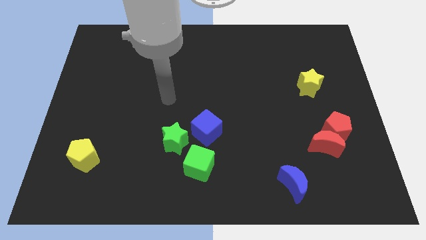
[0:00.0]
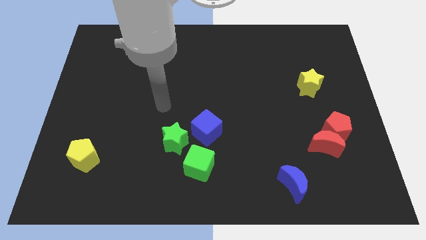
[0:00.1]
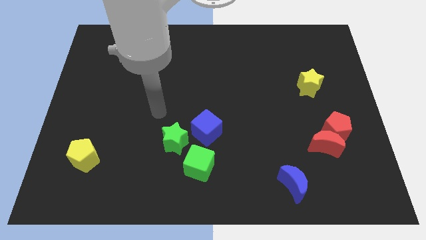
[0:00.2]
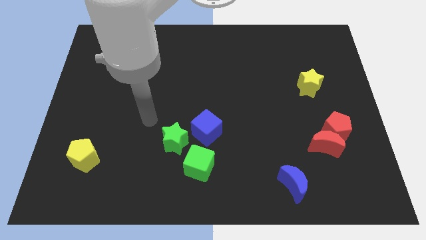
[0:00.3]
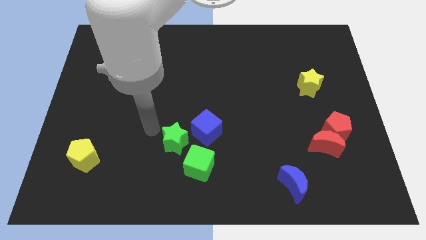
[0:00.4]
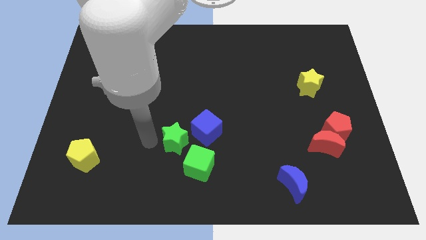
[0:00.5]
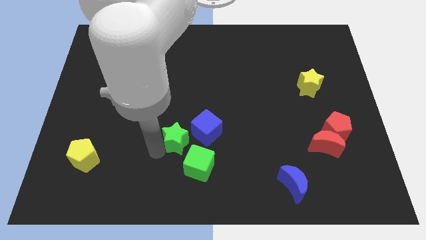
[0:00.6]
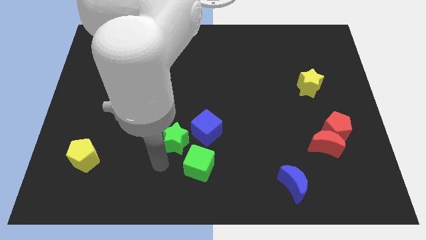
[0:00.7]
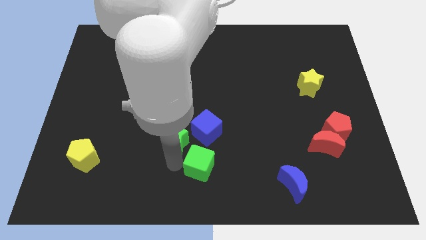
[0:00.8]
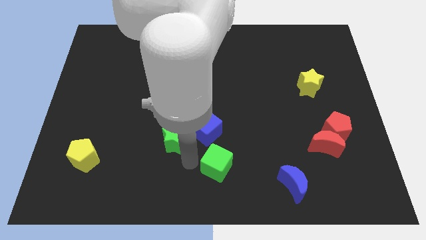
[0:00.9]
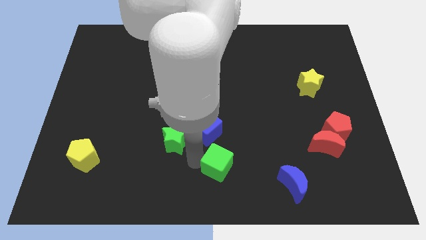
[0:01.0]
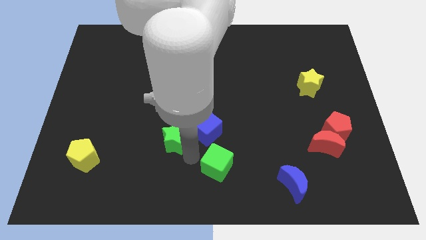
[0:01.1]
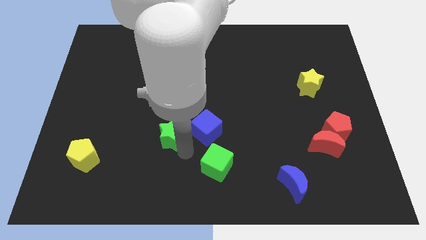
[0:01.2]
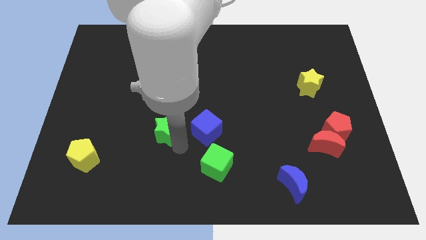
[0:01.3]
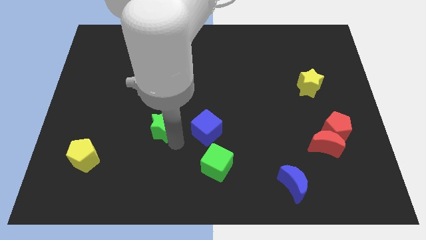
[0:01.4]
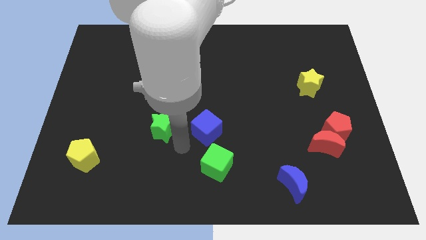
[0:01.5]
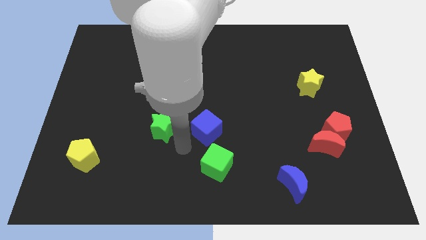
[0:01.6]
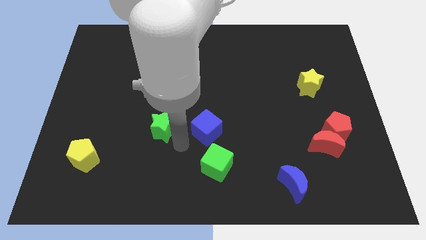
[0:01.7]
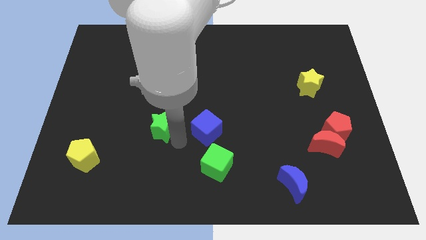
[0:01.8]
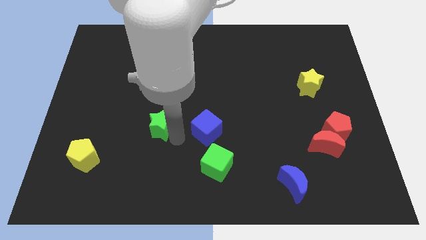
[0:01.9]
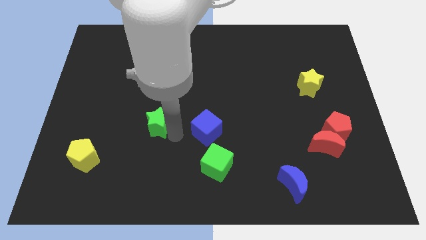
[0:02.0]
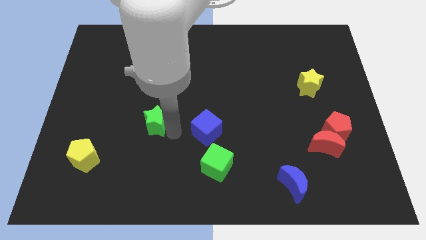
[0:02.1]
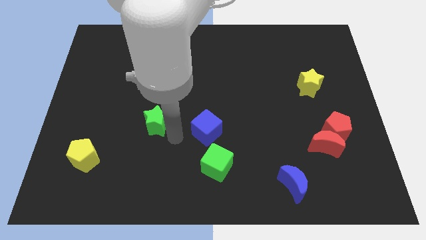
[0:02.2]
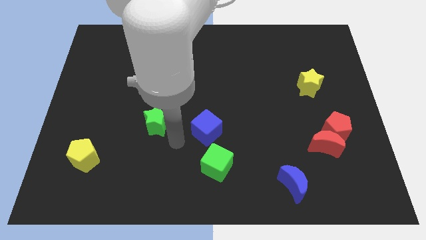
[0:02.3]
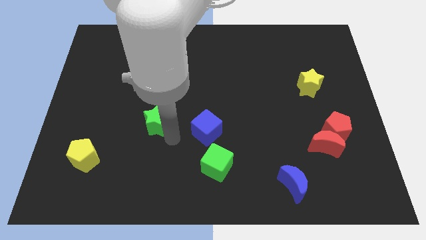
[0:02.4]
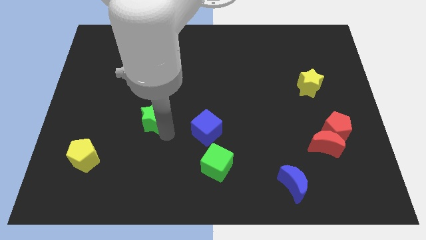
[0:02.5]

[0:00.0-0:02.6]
slide the green star somewhat upwards and left diagonally

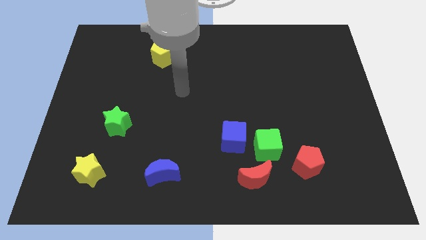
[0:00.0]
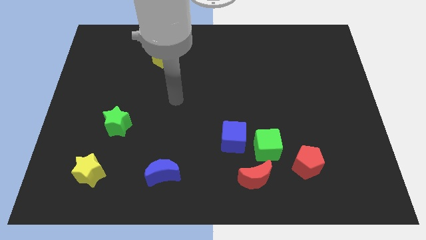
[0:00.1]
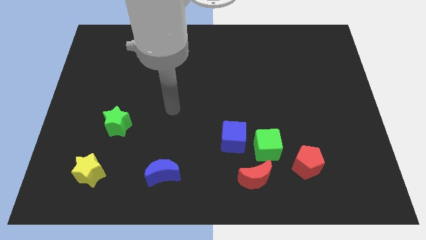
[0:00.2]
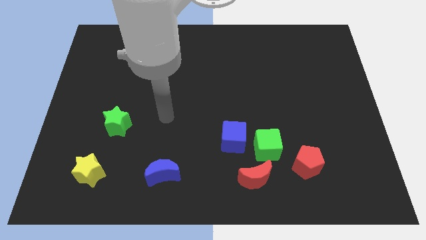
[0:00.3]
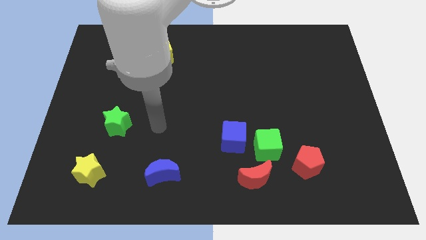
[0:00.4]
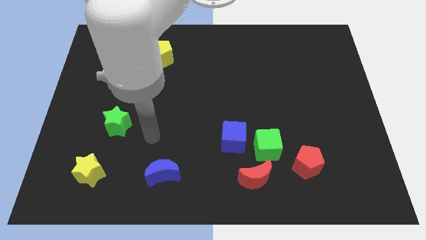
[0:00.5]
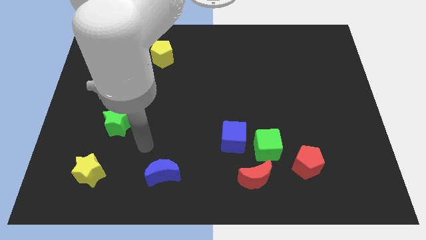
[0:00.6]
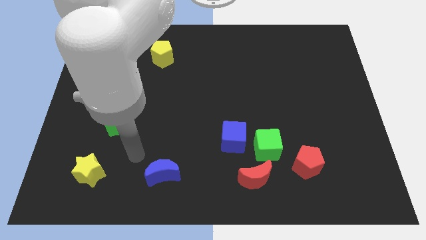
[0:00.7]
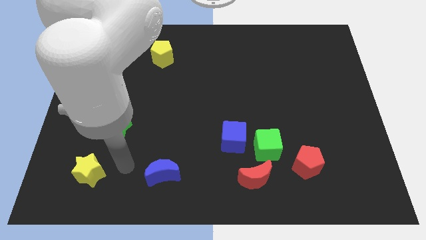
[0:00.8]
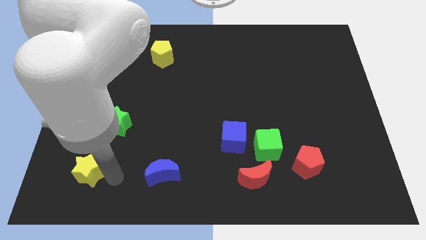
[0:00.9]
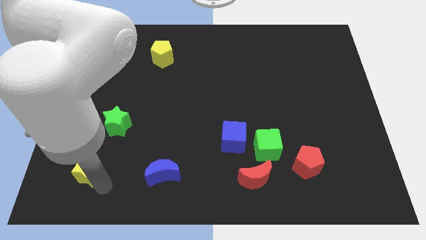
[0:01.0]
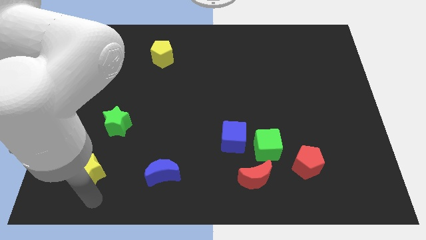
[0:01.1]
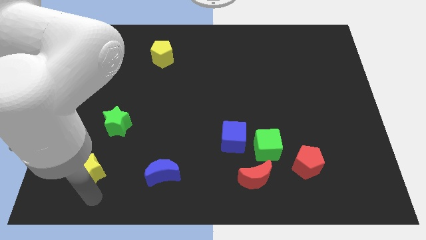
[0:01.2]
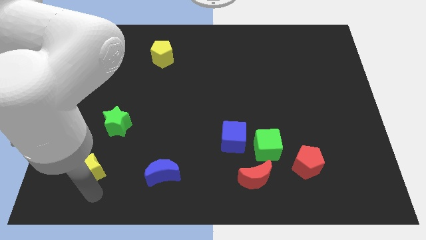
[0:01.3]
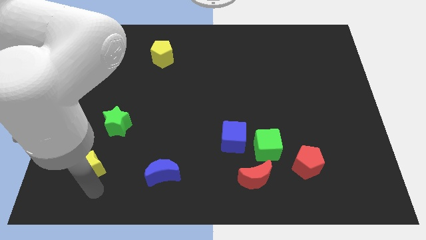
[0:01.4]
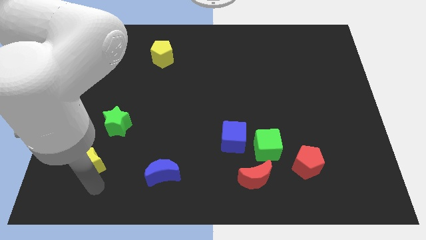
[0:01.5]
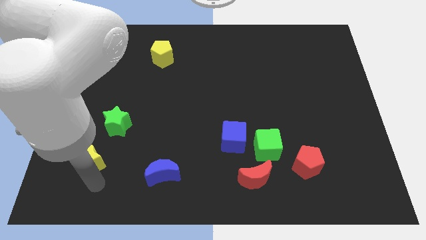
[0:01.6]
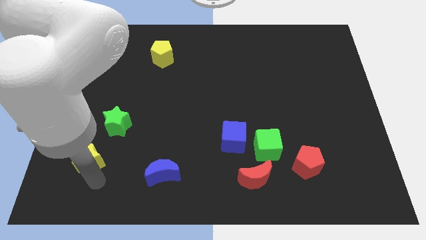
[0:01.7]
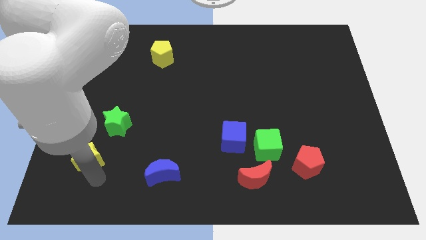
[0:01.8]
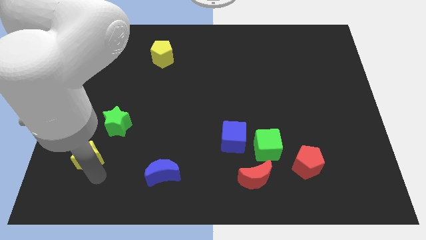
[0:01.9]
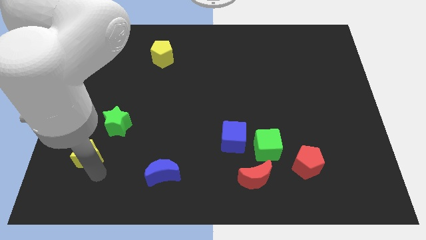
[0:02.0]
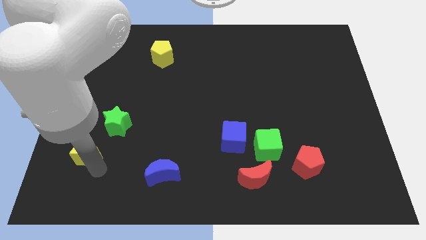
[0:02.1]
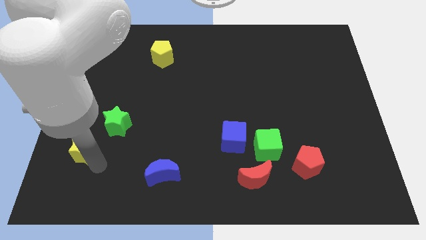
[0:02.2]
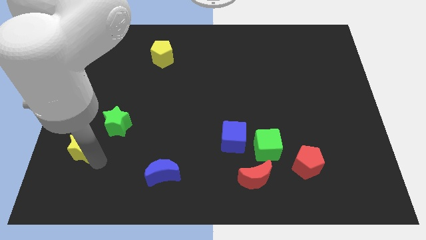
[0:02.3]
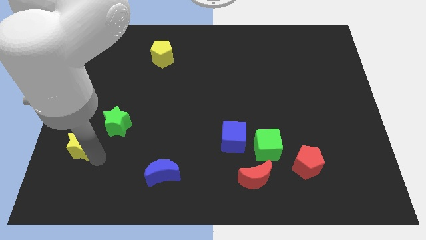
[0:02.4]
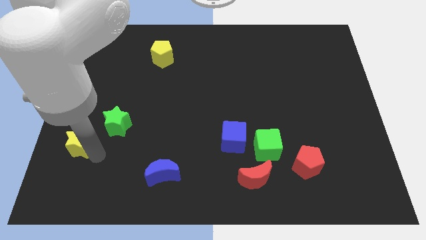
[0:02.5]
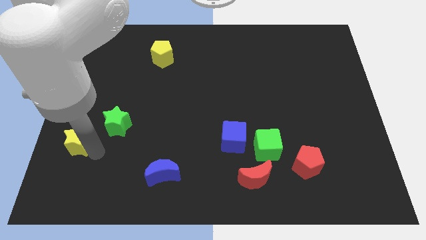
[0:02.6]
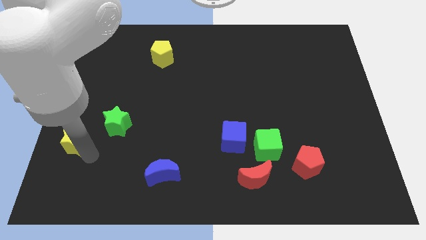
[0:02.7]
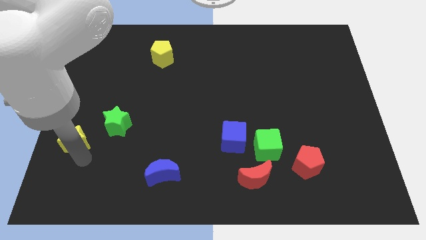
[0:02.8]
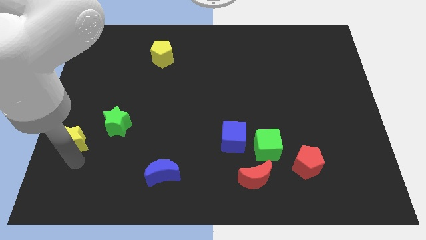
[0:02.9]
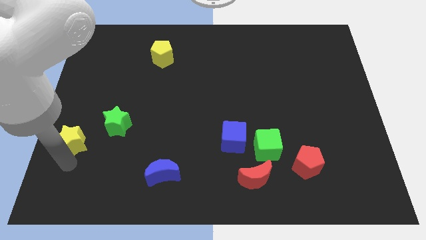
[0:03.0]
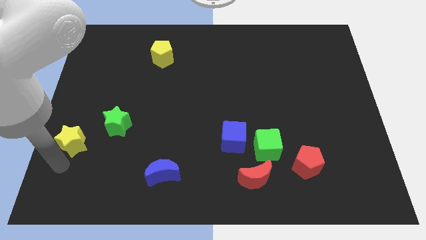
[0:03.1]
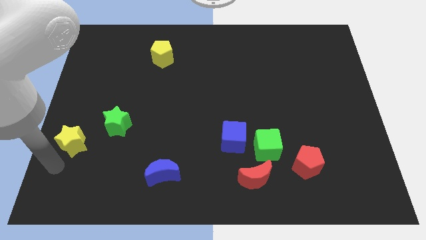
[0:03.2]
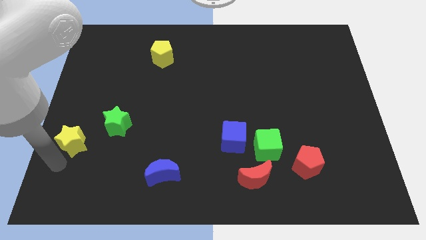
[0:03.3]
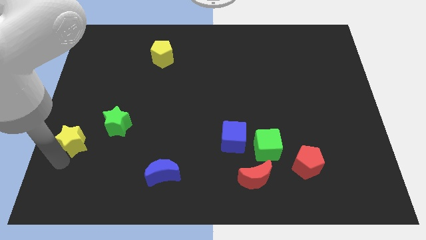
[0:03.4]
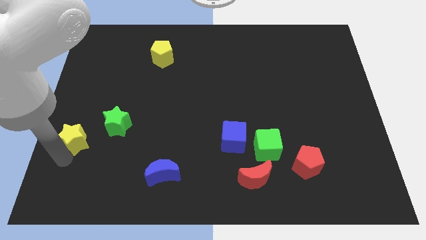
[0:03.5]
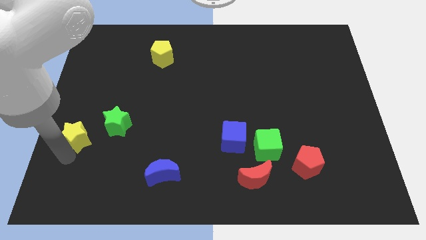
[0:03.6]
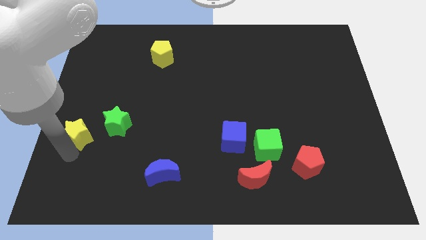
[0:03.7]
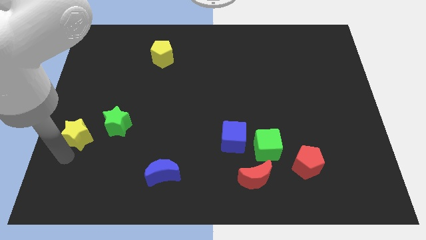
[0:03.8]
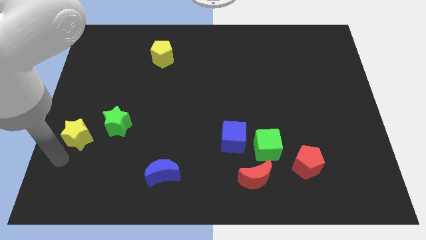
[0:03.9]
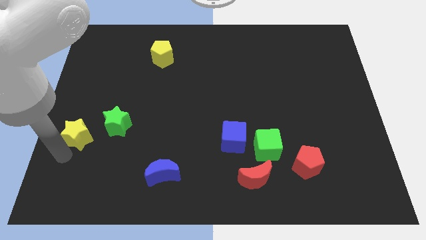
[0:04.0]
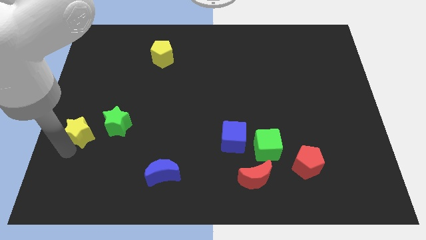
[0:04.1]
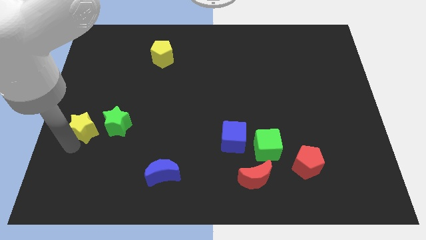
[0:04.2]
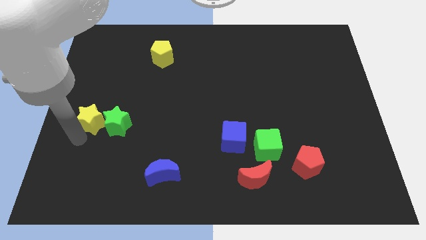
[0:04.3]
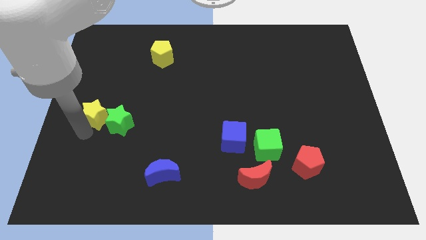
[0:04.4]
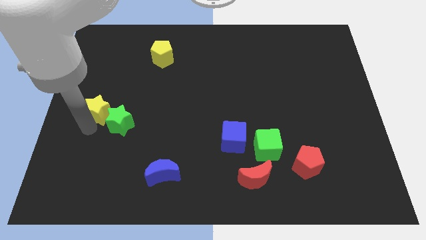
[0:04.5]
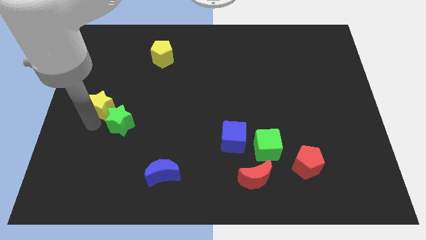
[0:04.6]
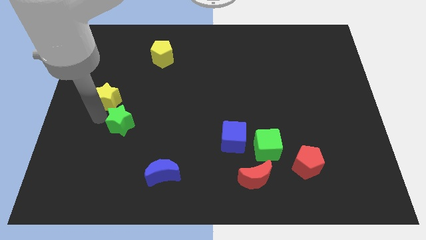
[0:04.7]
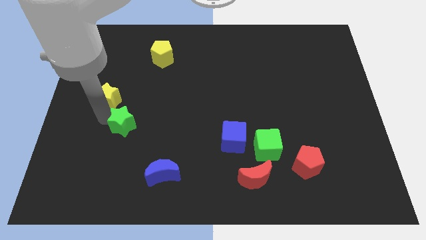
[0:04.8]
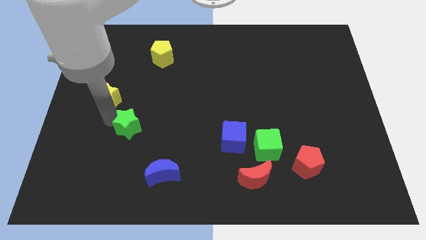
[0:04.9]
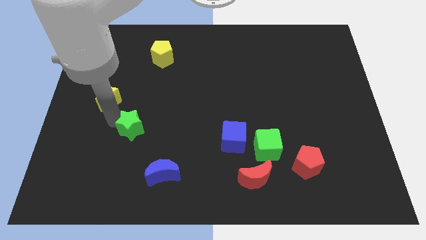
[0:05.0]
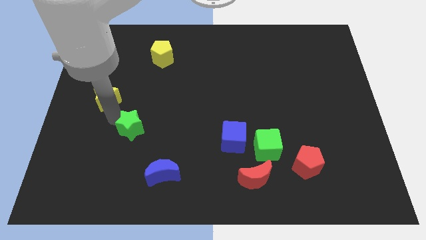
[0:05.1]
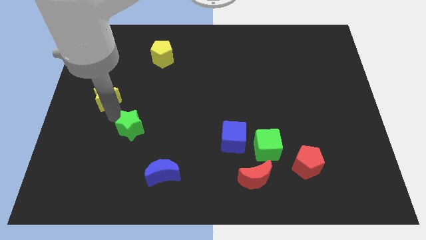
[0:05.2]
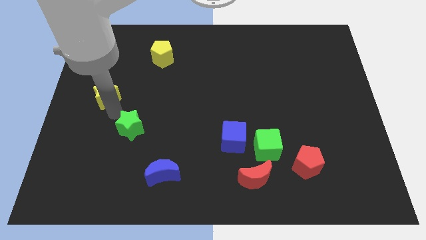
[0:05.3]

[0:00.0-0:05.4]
slide the yellow star up
